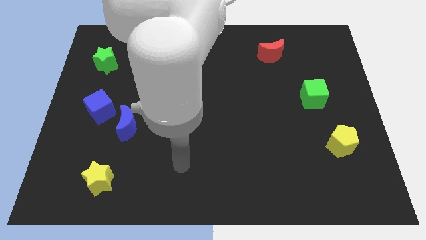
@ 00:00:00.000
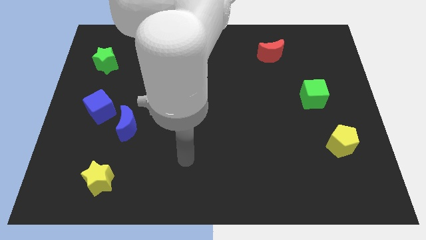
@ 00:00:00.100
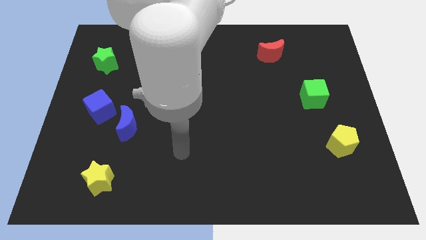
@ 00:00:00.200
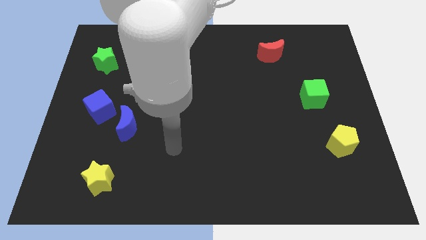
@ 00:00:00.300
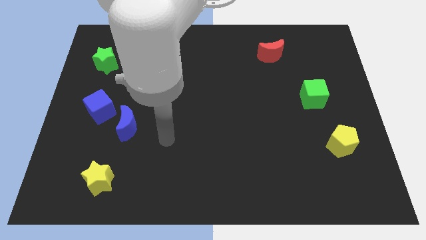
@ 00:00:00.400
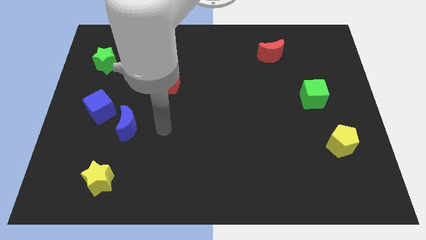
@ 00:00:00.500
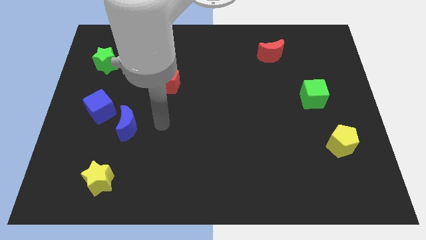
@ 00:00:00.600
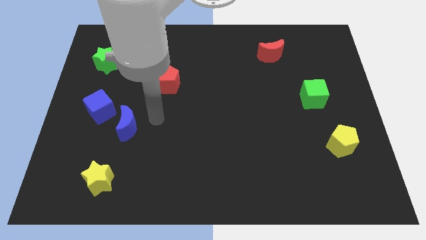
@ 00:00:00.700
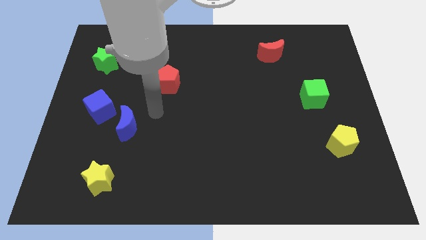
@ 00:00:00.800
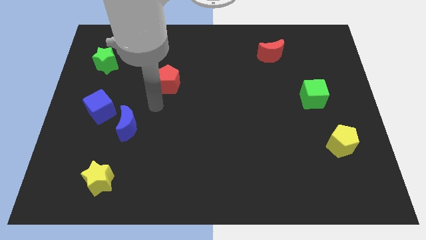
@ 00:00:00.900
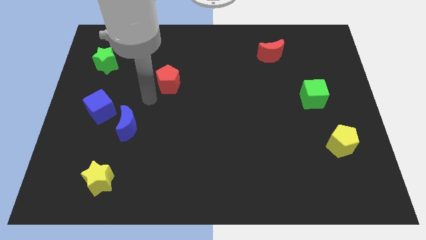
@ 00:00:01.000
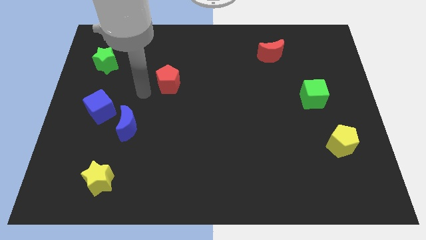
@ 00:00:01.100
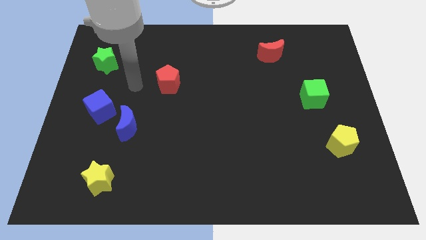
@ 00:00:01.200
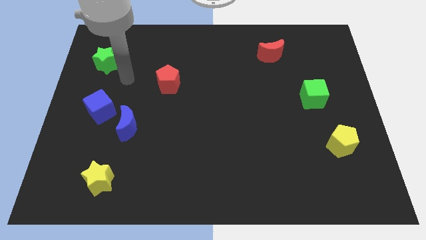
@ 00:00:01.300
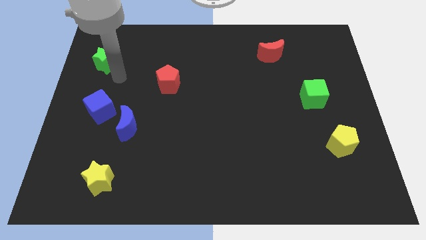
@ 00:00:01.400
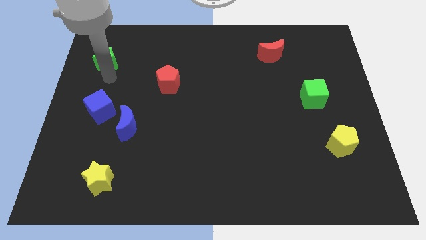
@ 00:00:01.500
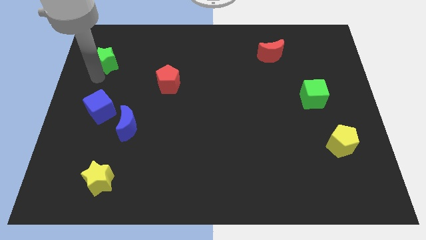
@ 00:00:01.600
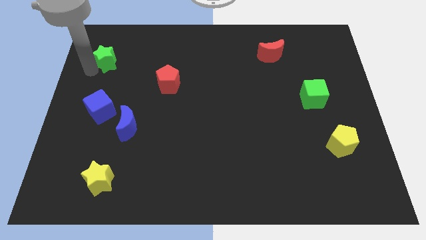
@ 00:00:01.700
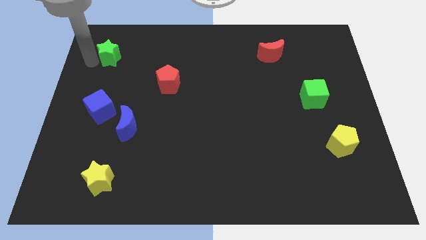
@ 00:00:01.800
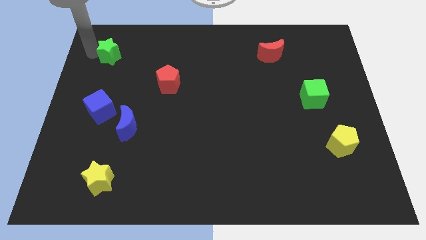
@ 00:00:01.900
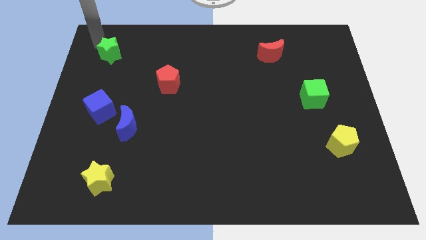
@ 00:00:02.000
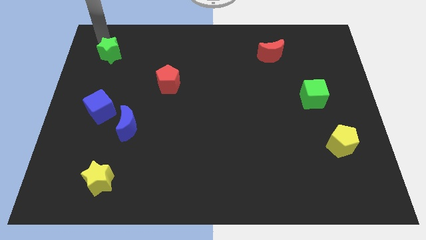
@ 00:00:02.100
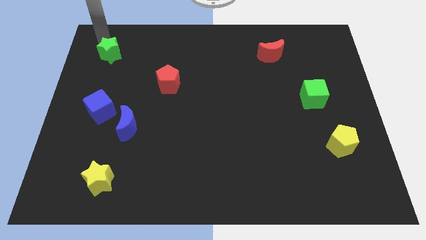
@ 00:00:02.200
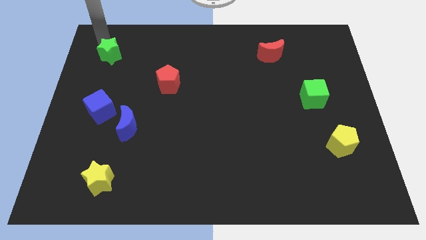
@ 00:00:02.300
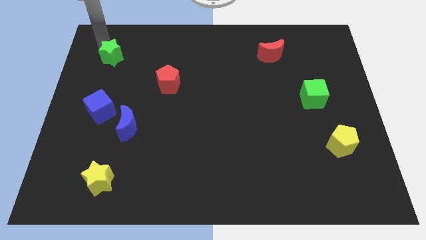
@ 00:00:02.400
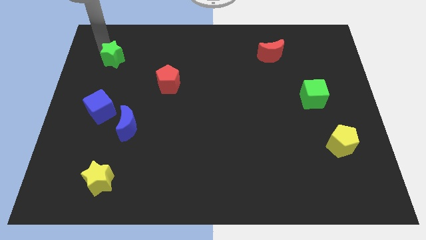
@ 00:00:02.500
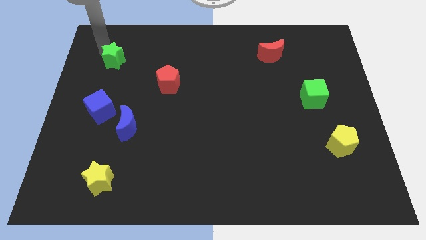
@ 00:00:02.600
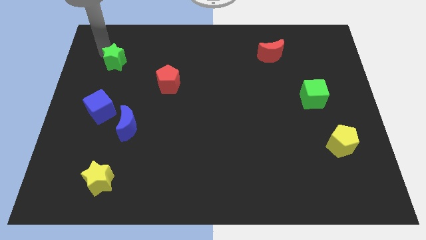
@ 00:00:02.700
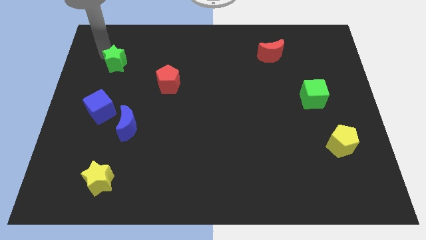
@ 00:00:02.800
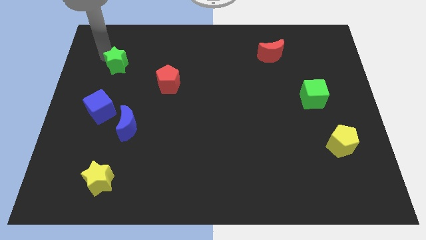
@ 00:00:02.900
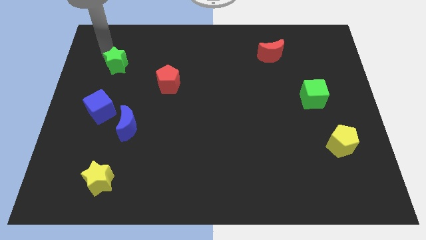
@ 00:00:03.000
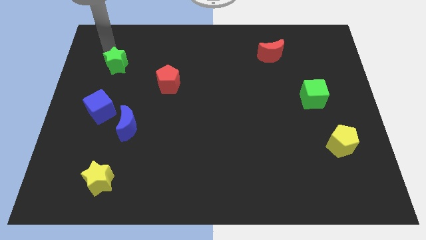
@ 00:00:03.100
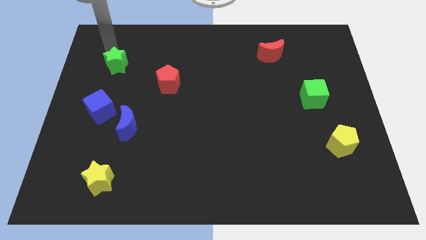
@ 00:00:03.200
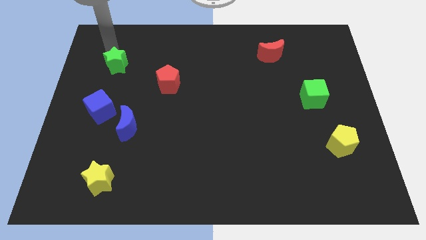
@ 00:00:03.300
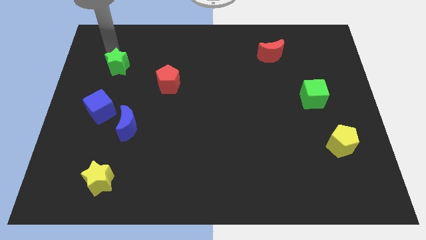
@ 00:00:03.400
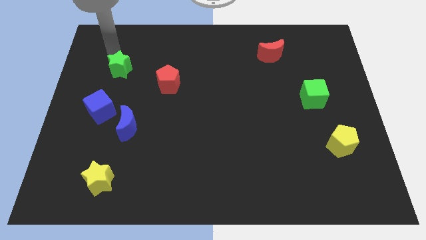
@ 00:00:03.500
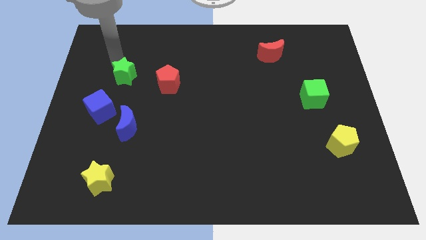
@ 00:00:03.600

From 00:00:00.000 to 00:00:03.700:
slide the green star a little diagonally down and right

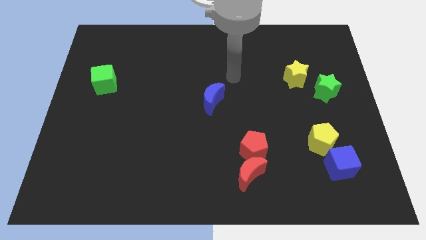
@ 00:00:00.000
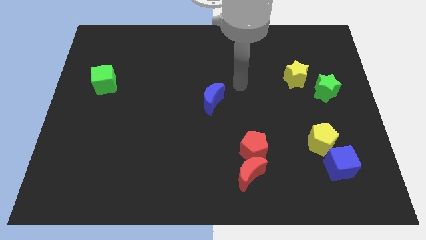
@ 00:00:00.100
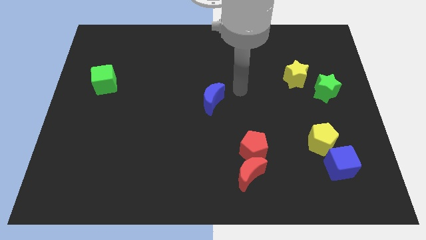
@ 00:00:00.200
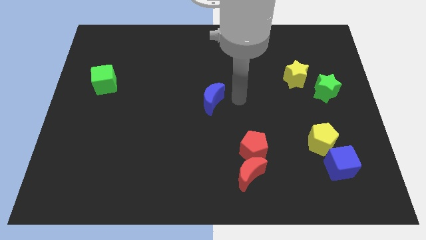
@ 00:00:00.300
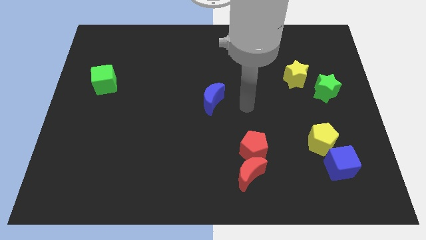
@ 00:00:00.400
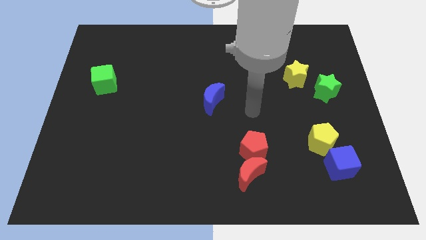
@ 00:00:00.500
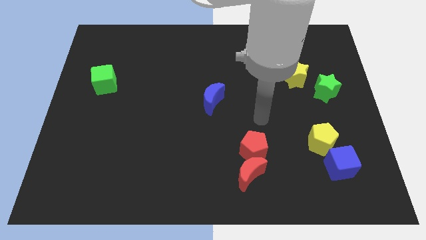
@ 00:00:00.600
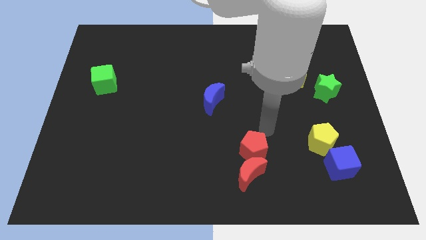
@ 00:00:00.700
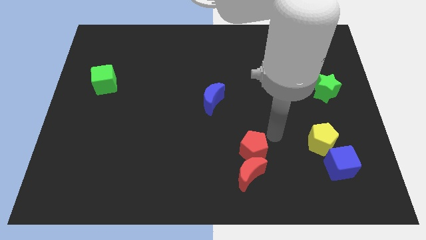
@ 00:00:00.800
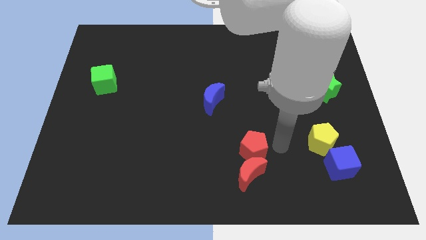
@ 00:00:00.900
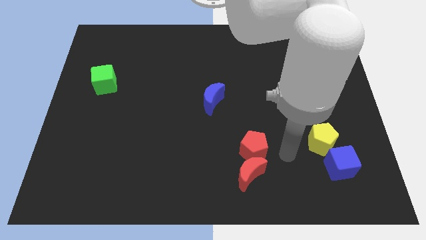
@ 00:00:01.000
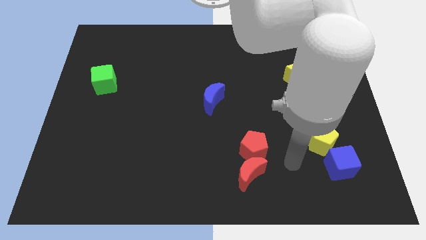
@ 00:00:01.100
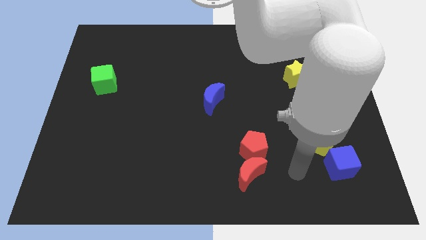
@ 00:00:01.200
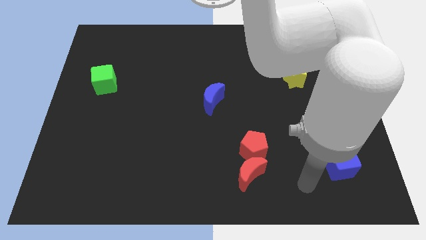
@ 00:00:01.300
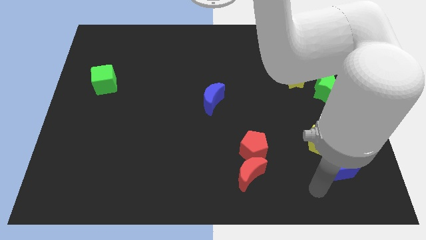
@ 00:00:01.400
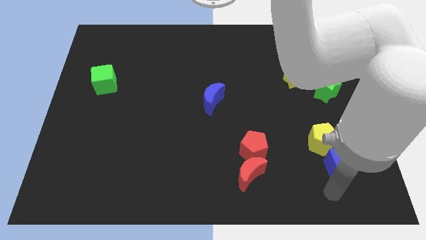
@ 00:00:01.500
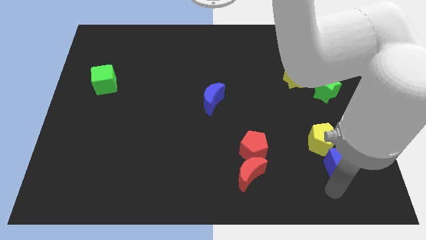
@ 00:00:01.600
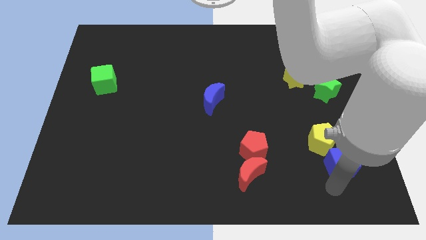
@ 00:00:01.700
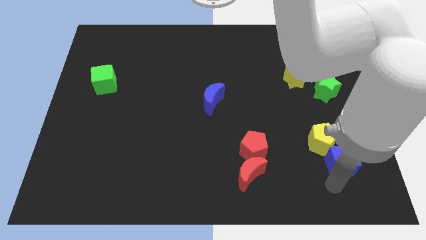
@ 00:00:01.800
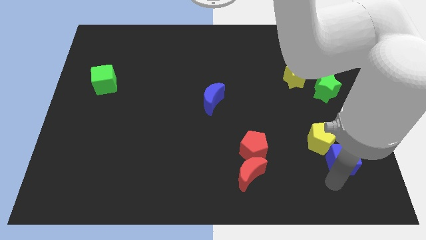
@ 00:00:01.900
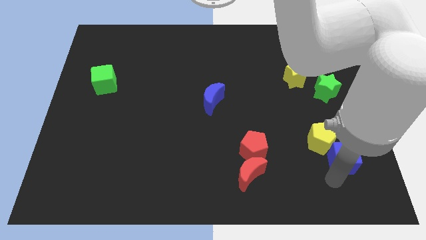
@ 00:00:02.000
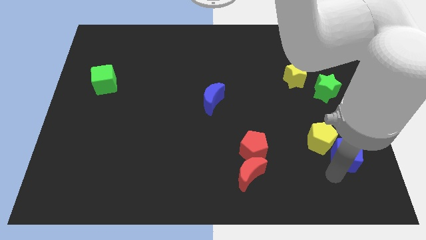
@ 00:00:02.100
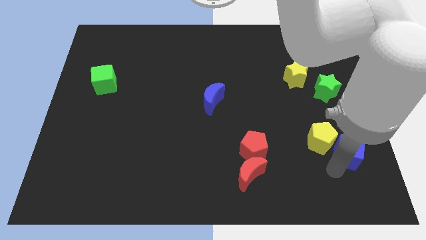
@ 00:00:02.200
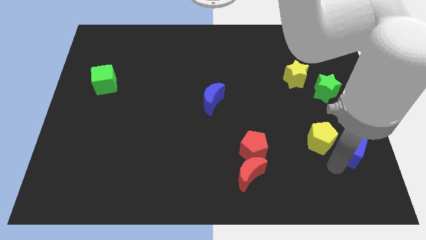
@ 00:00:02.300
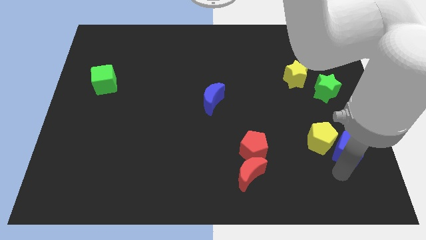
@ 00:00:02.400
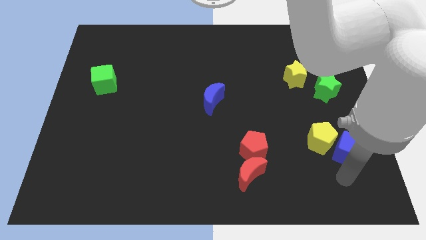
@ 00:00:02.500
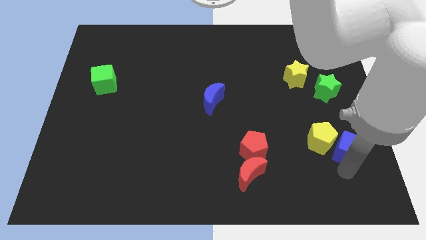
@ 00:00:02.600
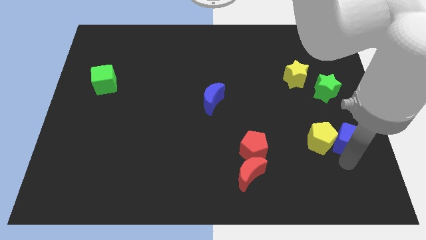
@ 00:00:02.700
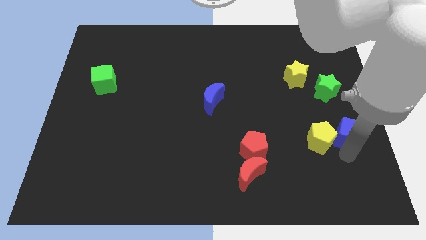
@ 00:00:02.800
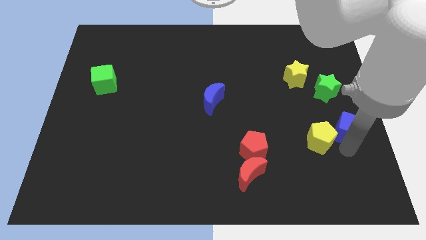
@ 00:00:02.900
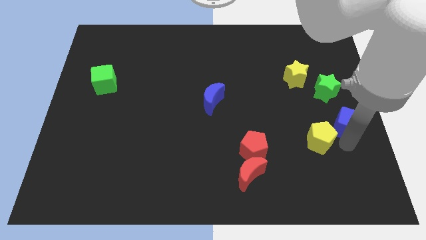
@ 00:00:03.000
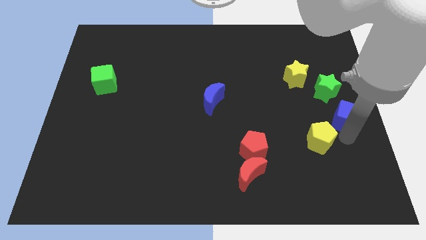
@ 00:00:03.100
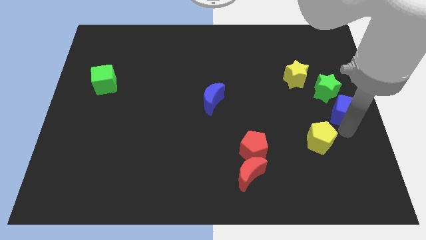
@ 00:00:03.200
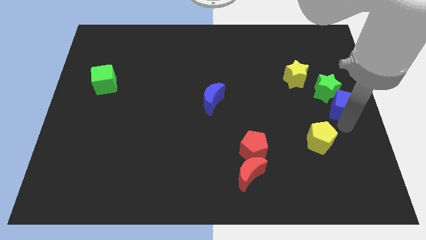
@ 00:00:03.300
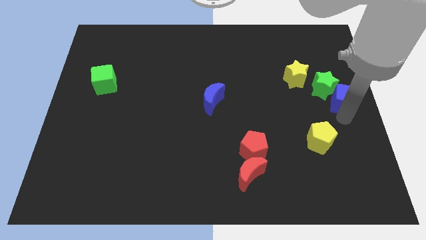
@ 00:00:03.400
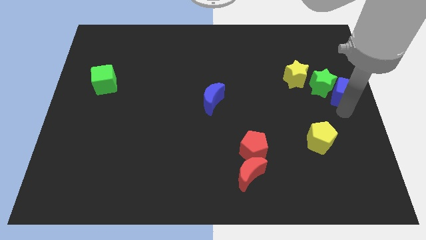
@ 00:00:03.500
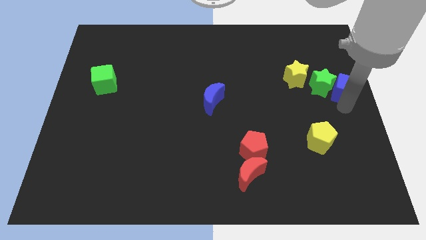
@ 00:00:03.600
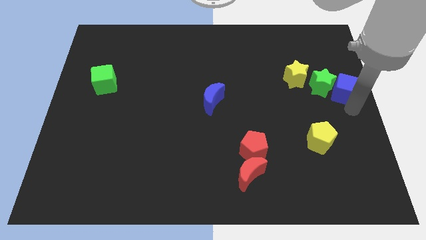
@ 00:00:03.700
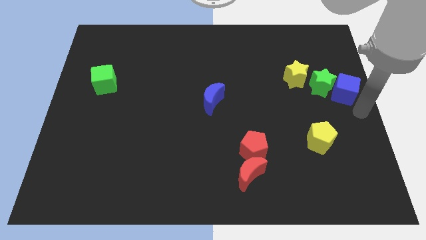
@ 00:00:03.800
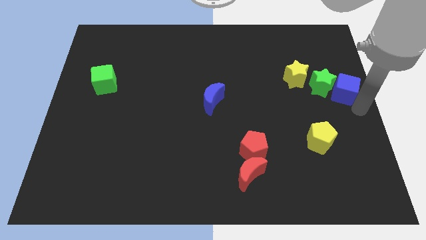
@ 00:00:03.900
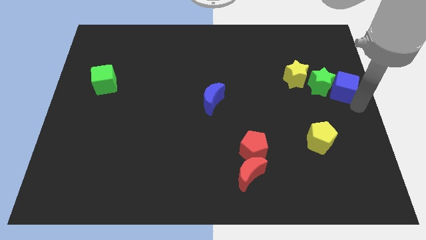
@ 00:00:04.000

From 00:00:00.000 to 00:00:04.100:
slide the blue cube up
